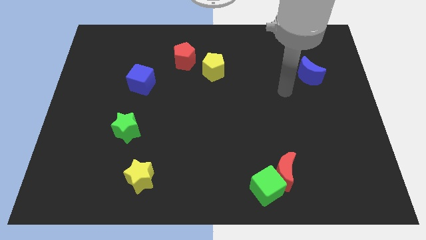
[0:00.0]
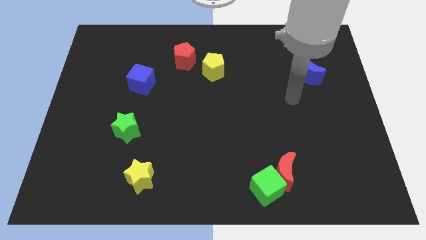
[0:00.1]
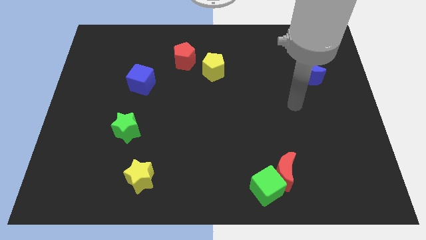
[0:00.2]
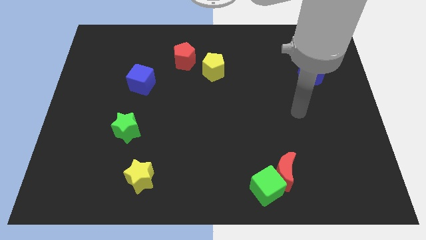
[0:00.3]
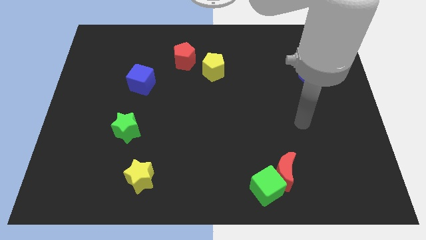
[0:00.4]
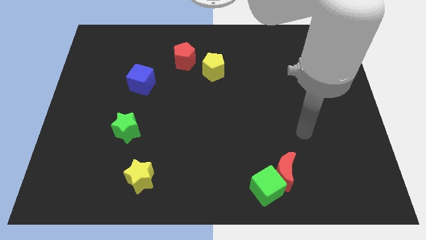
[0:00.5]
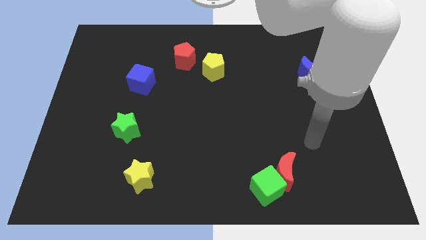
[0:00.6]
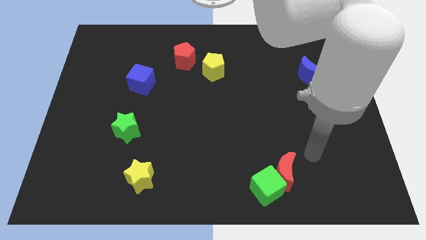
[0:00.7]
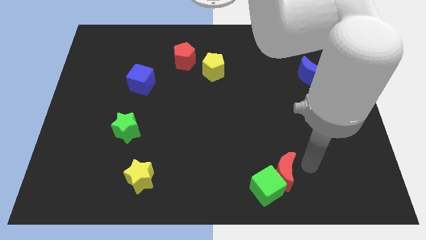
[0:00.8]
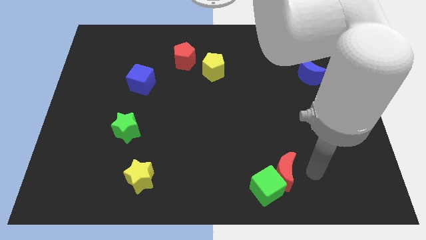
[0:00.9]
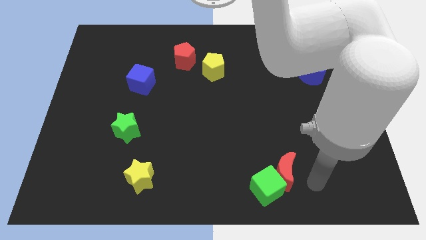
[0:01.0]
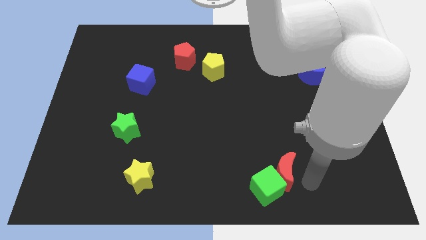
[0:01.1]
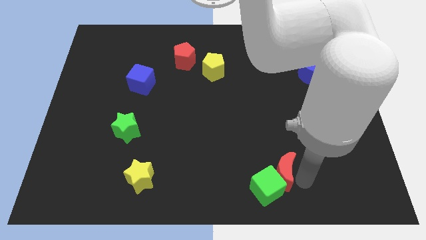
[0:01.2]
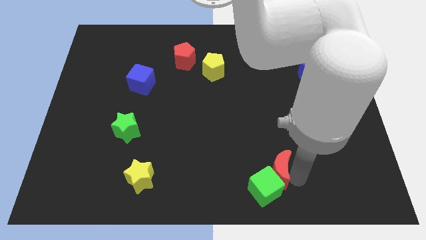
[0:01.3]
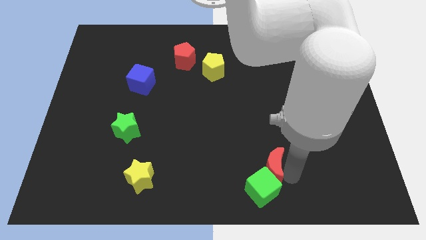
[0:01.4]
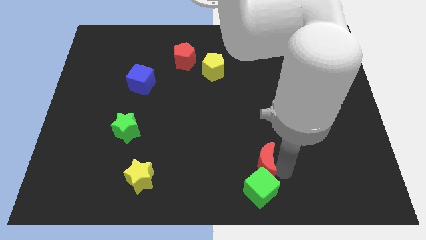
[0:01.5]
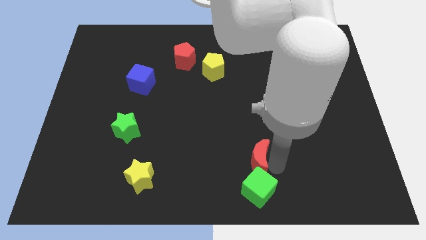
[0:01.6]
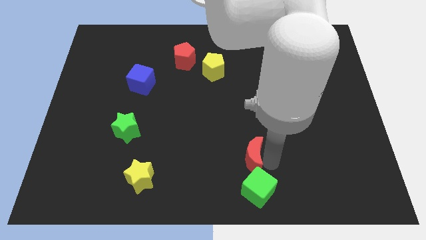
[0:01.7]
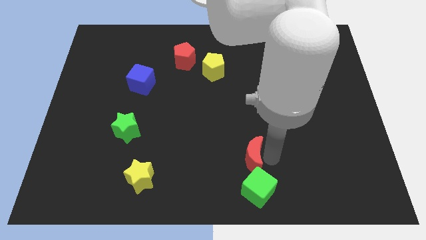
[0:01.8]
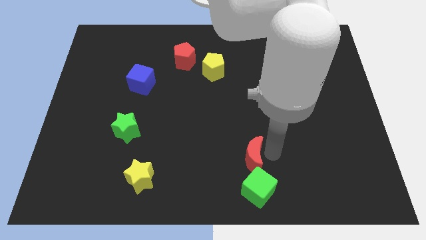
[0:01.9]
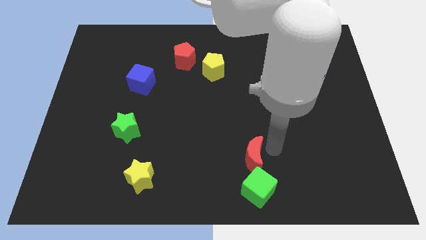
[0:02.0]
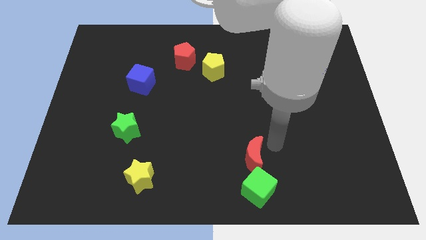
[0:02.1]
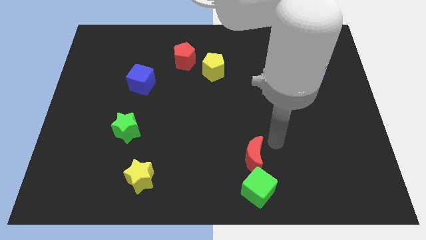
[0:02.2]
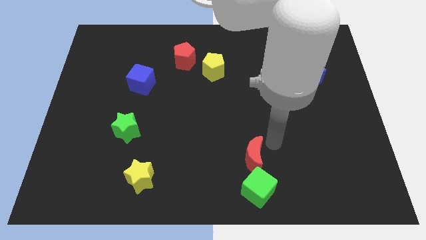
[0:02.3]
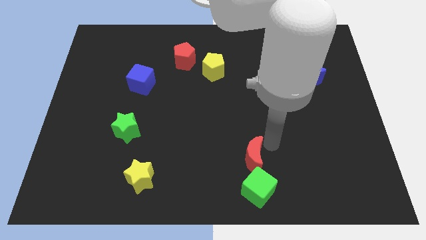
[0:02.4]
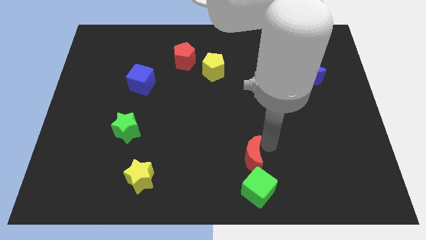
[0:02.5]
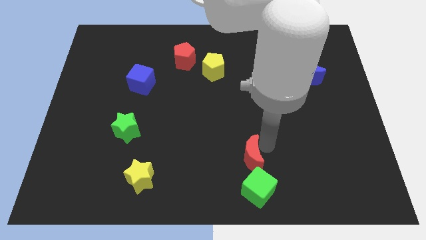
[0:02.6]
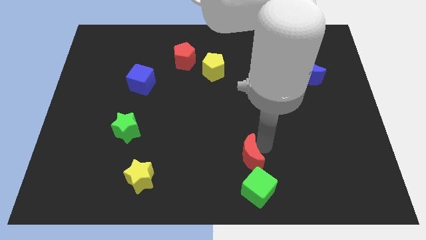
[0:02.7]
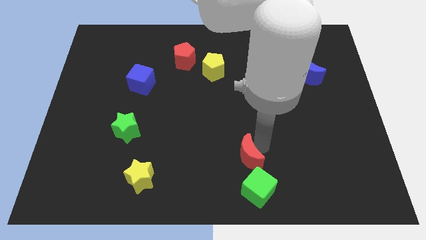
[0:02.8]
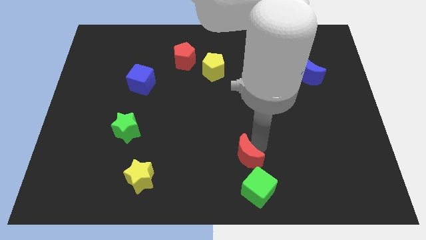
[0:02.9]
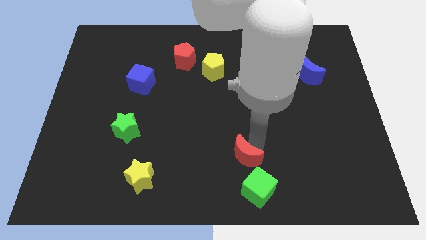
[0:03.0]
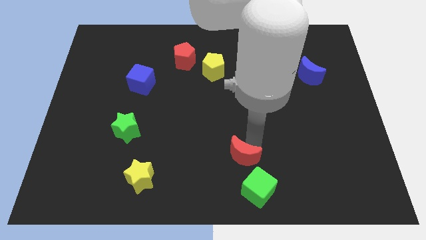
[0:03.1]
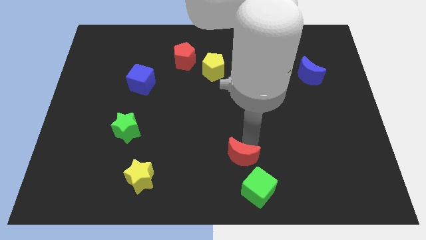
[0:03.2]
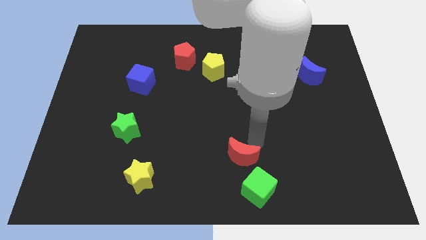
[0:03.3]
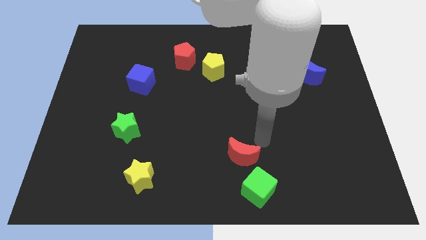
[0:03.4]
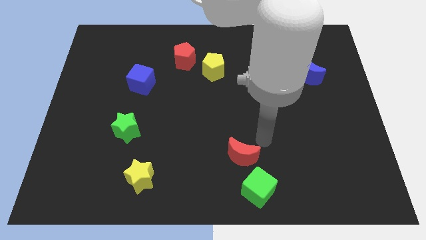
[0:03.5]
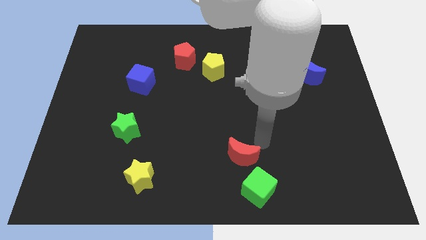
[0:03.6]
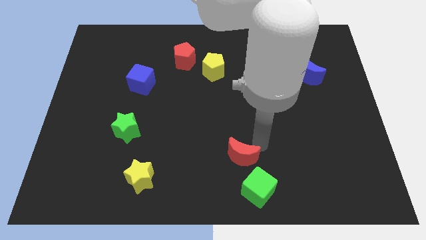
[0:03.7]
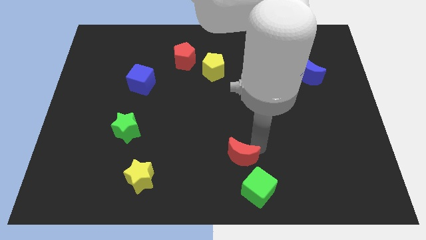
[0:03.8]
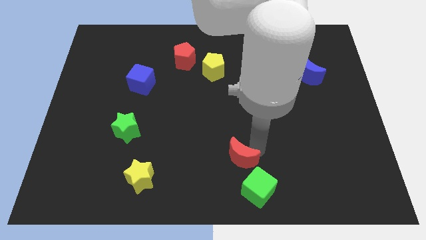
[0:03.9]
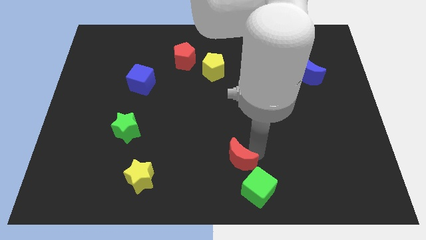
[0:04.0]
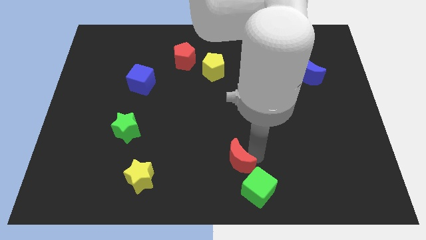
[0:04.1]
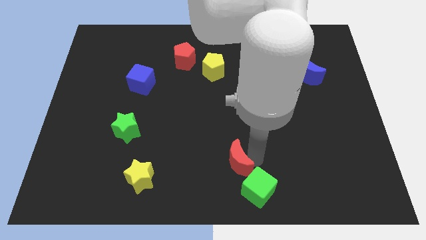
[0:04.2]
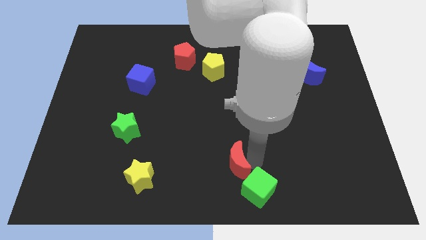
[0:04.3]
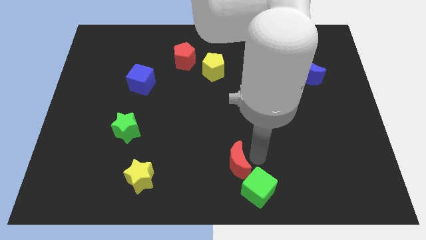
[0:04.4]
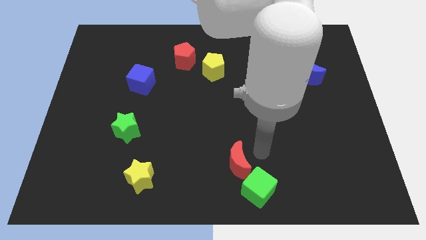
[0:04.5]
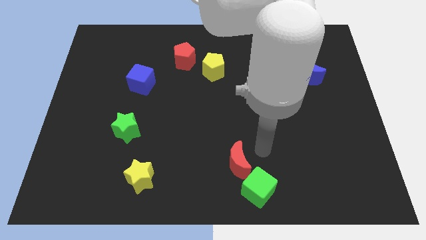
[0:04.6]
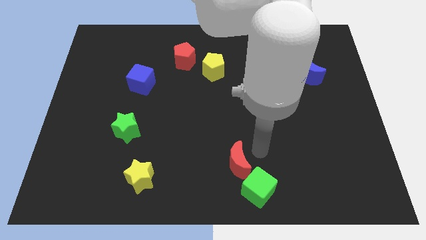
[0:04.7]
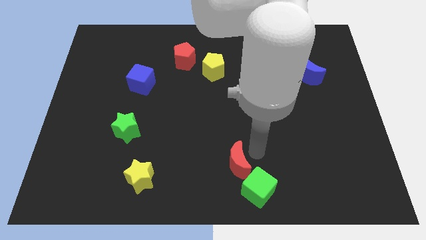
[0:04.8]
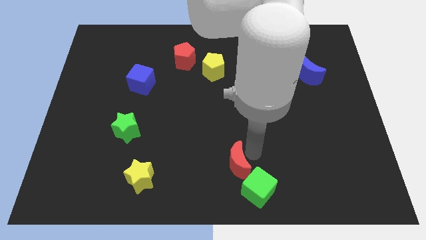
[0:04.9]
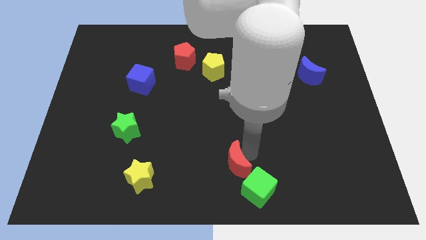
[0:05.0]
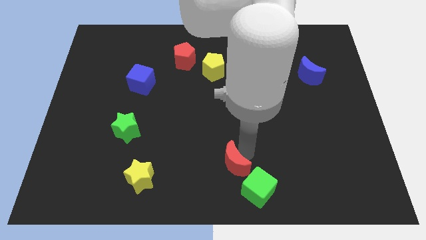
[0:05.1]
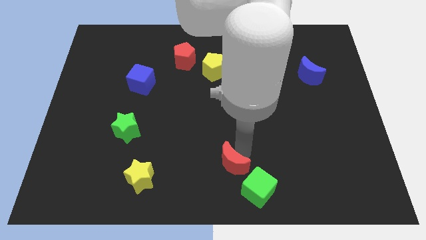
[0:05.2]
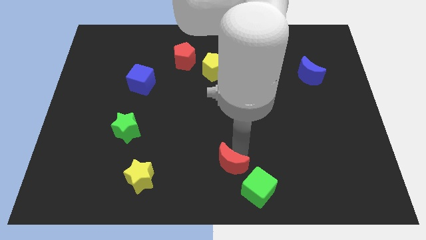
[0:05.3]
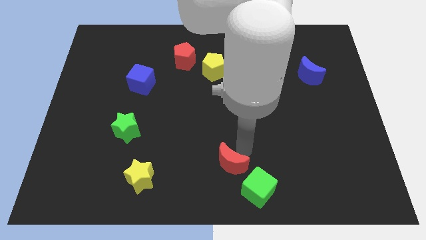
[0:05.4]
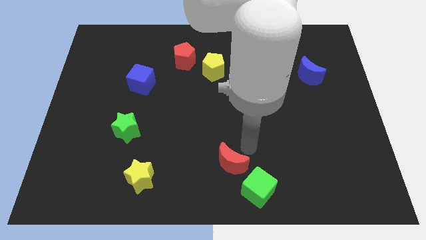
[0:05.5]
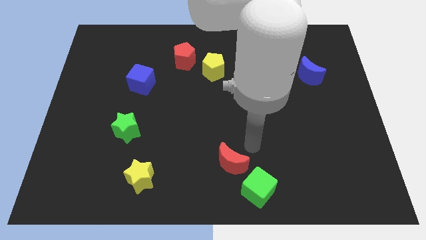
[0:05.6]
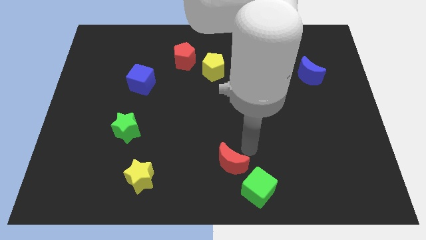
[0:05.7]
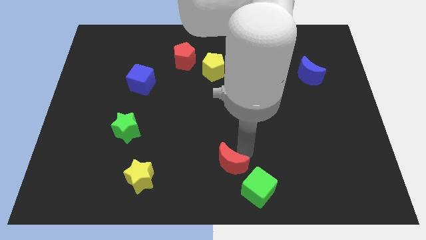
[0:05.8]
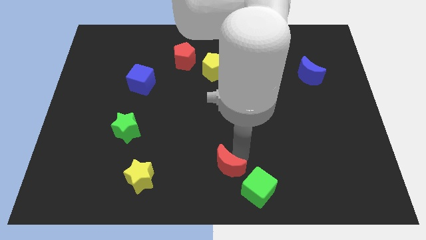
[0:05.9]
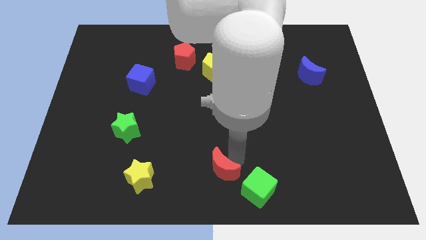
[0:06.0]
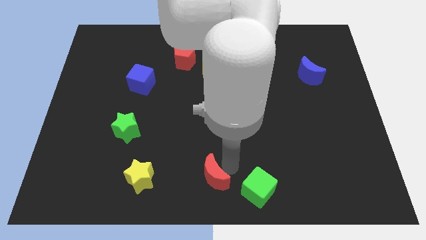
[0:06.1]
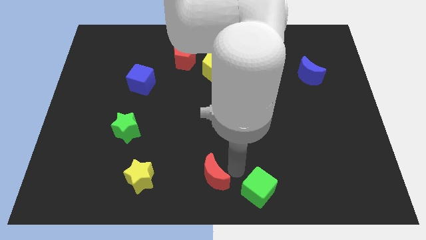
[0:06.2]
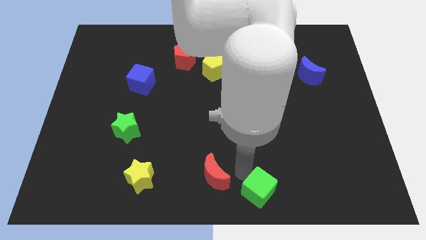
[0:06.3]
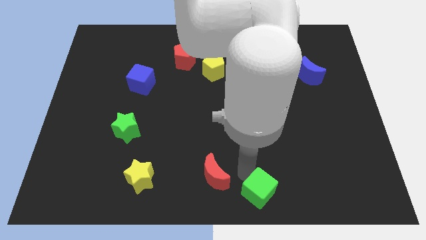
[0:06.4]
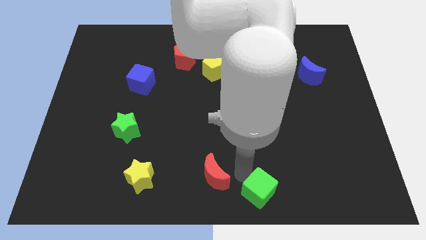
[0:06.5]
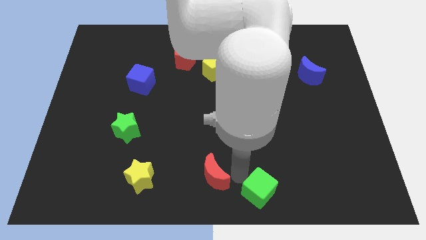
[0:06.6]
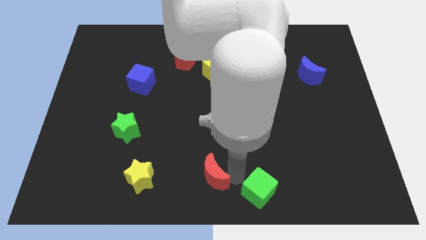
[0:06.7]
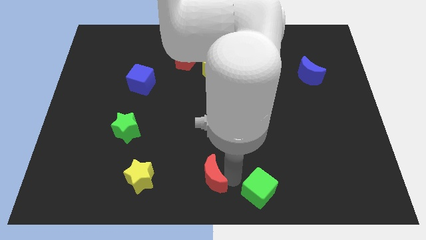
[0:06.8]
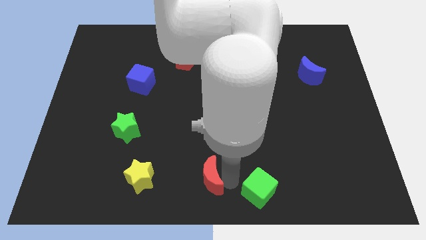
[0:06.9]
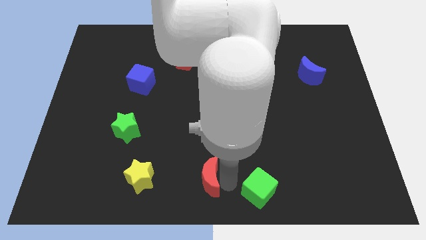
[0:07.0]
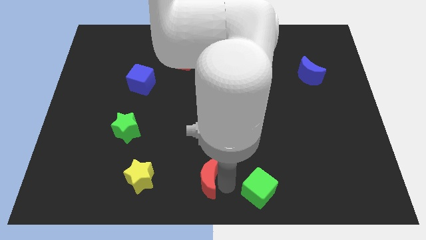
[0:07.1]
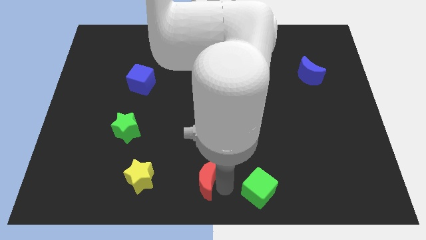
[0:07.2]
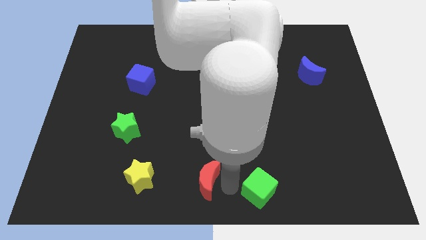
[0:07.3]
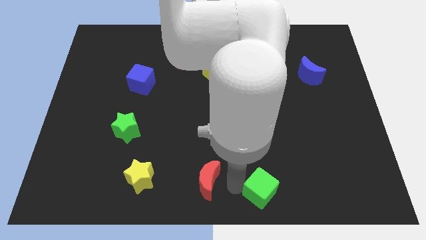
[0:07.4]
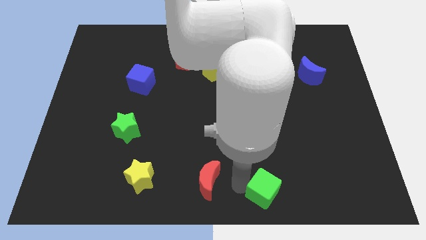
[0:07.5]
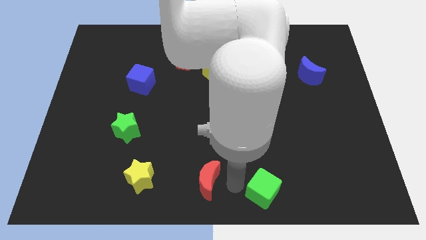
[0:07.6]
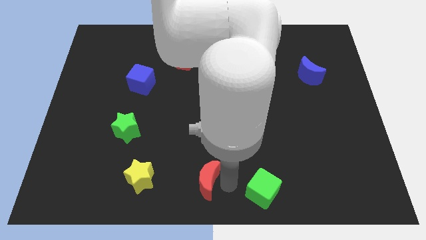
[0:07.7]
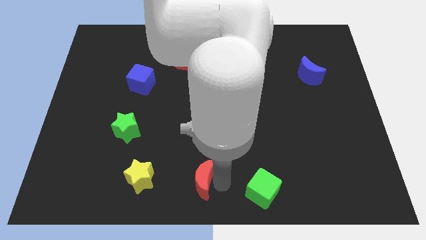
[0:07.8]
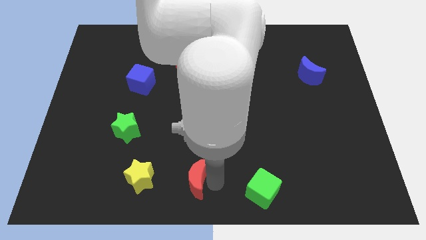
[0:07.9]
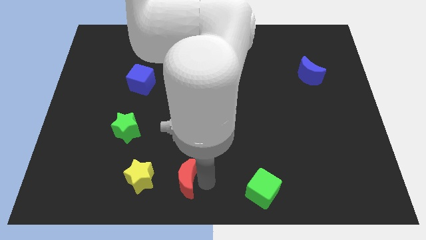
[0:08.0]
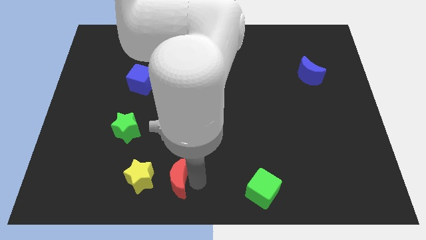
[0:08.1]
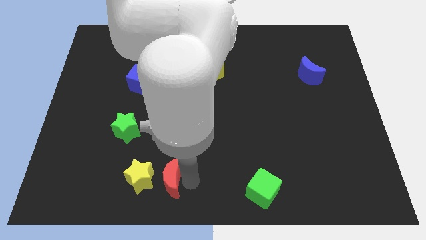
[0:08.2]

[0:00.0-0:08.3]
move the red moon to the yellow star
